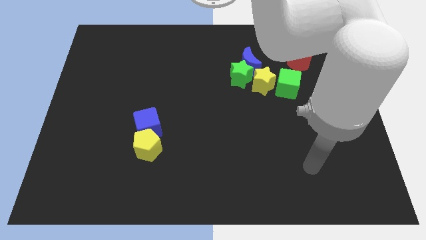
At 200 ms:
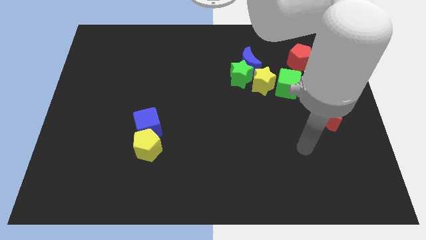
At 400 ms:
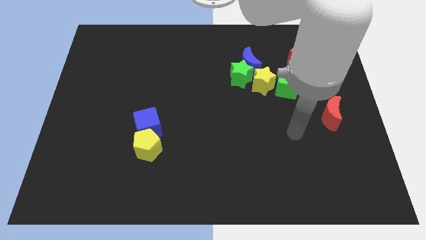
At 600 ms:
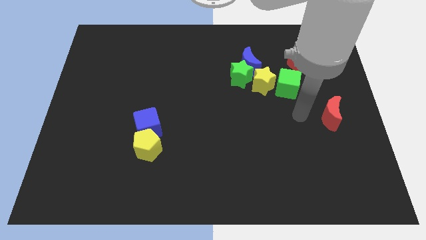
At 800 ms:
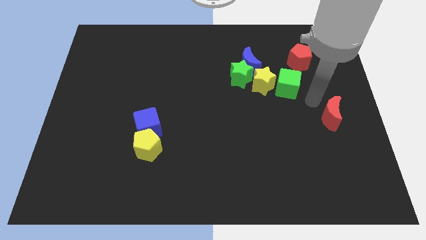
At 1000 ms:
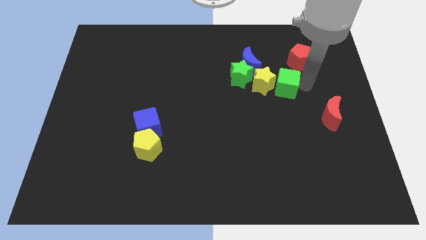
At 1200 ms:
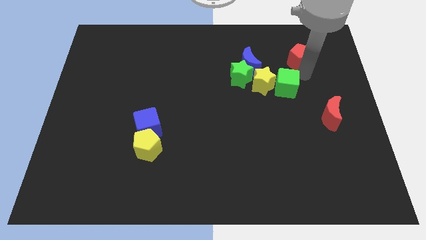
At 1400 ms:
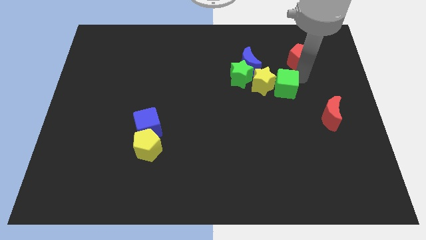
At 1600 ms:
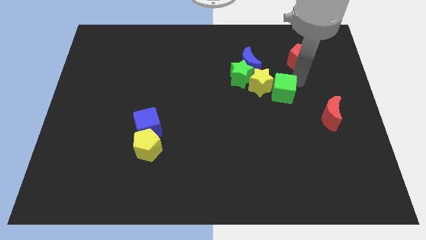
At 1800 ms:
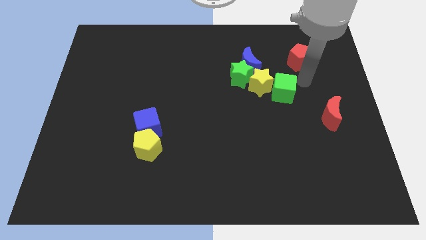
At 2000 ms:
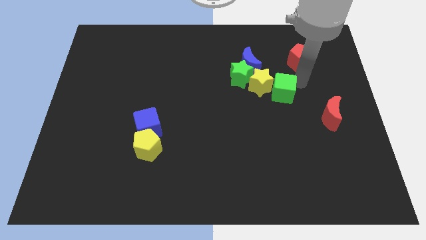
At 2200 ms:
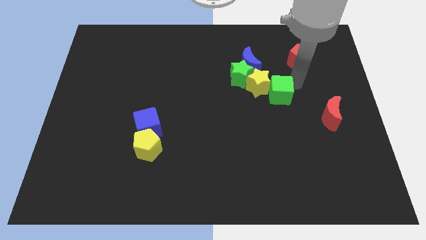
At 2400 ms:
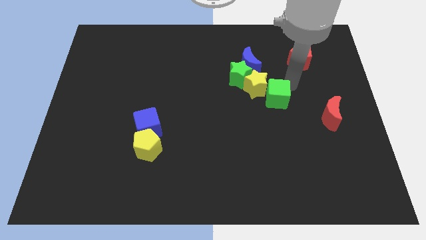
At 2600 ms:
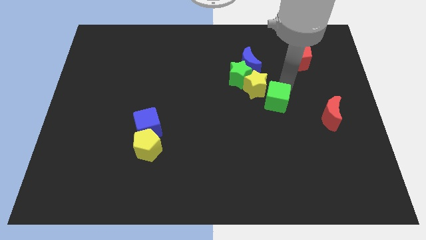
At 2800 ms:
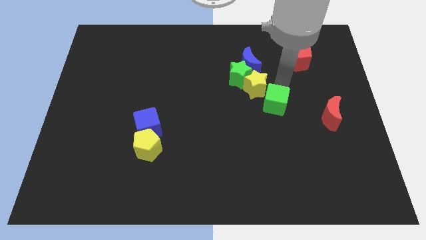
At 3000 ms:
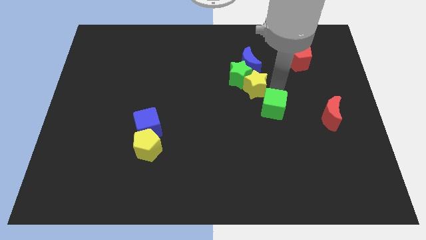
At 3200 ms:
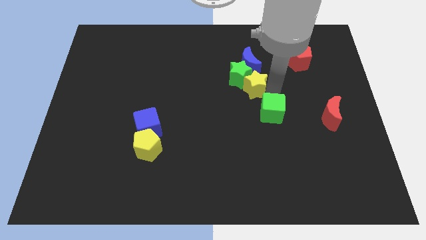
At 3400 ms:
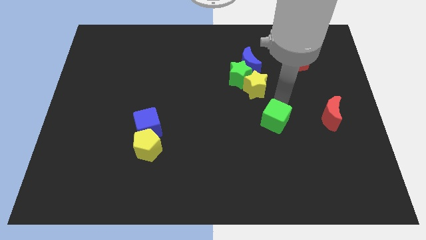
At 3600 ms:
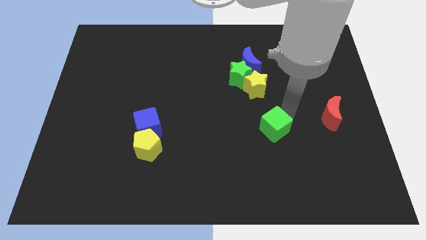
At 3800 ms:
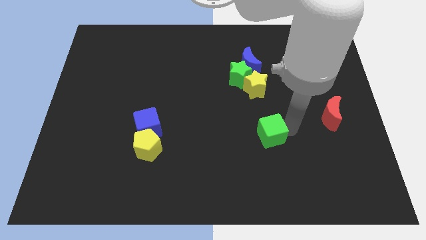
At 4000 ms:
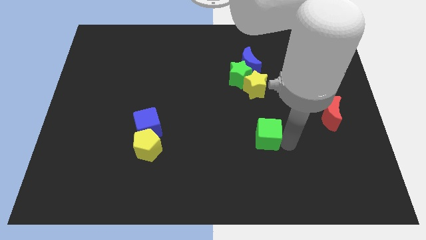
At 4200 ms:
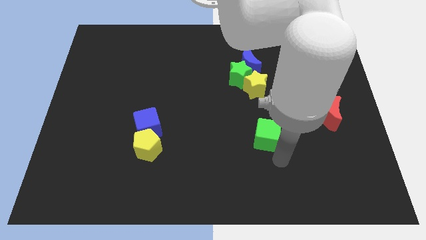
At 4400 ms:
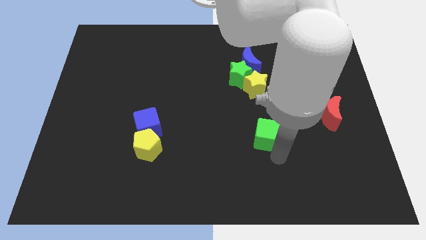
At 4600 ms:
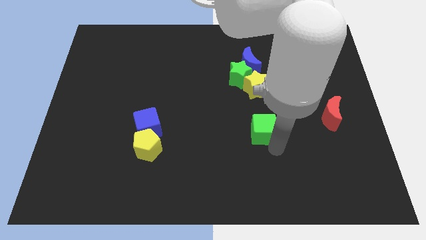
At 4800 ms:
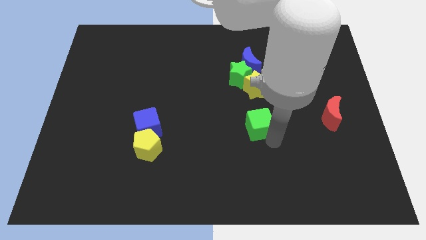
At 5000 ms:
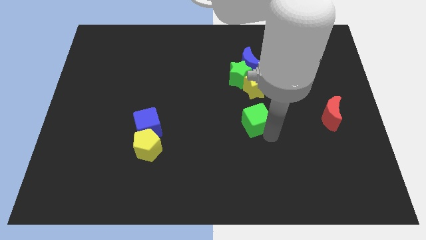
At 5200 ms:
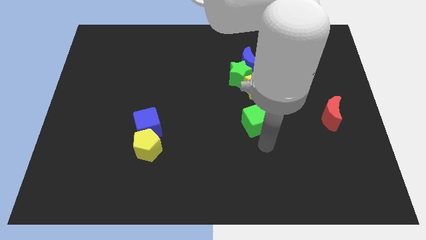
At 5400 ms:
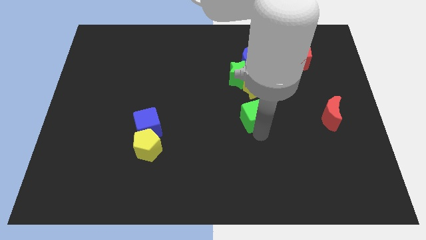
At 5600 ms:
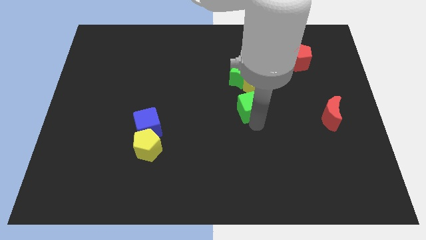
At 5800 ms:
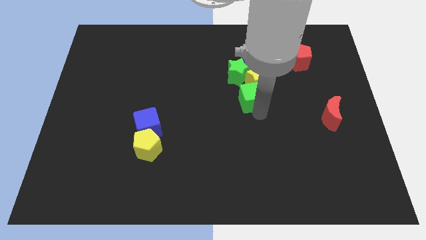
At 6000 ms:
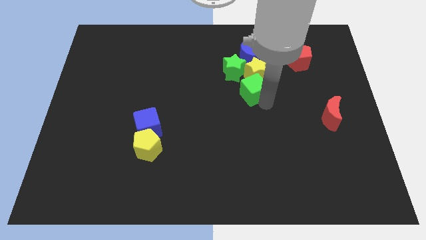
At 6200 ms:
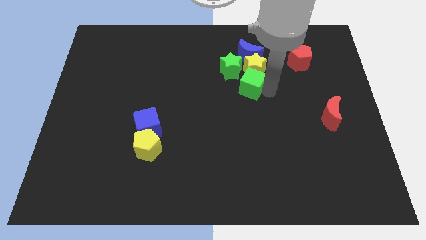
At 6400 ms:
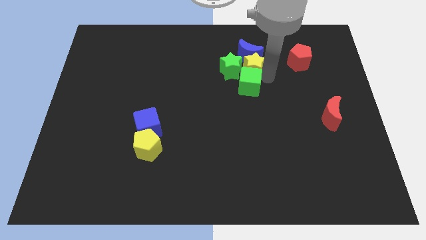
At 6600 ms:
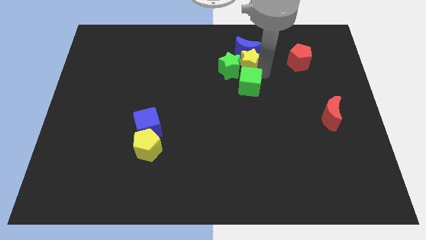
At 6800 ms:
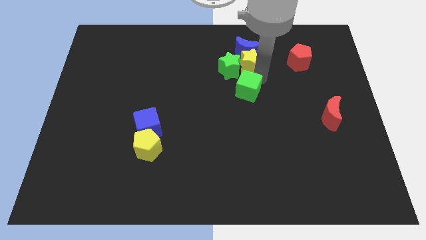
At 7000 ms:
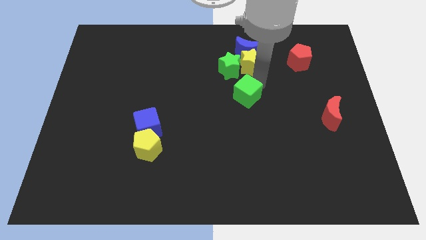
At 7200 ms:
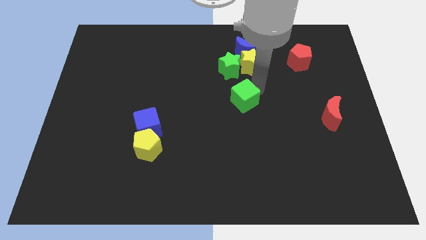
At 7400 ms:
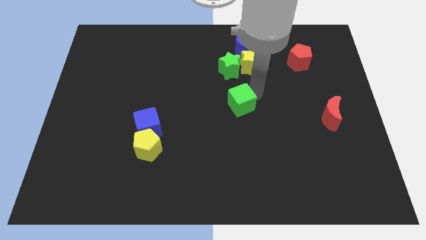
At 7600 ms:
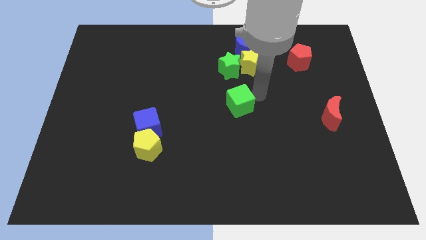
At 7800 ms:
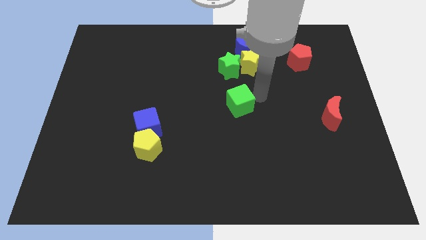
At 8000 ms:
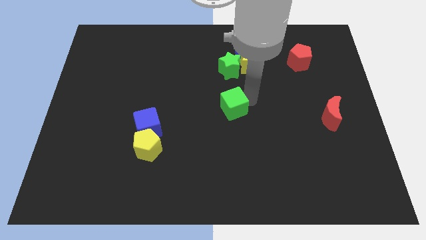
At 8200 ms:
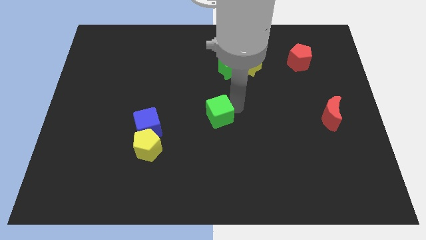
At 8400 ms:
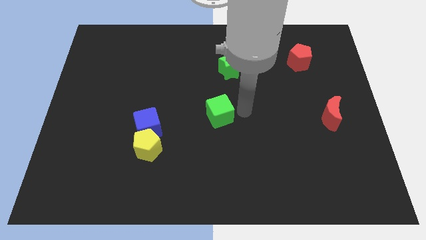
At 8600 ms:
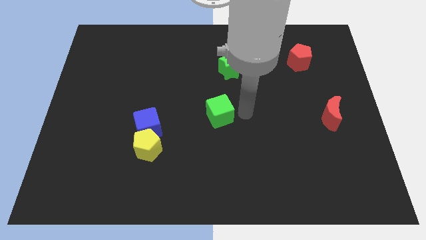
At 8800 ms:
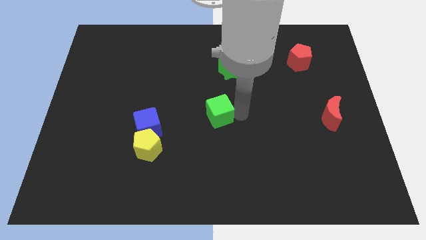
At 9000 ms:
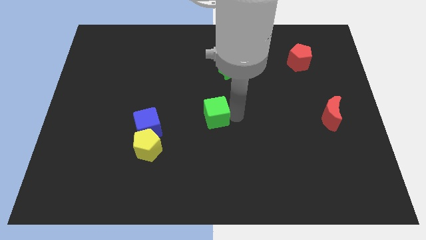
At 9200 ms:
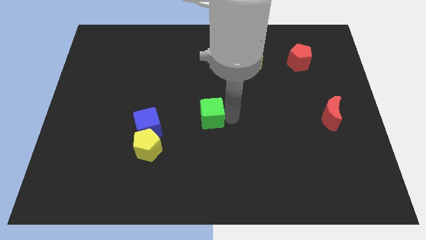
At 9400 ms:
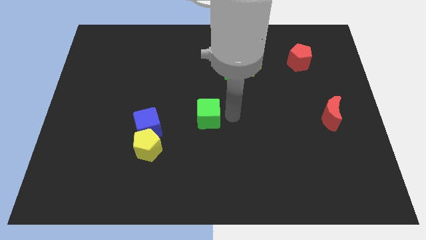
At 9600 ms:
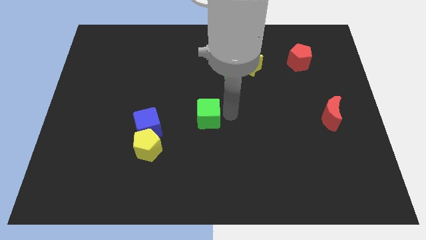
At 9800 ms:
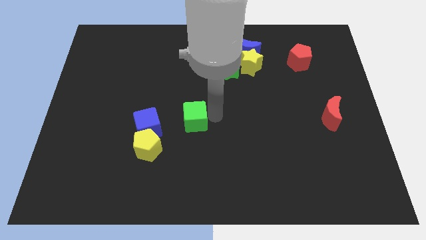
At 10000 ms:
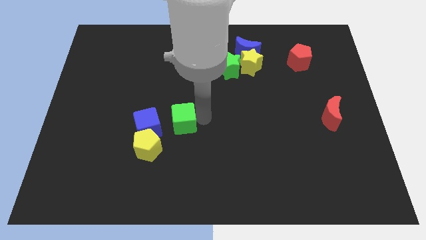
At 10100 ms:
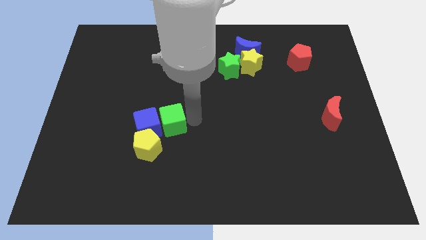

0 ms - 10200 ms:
put the green cube close to the blue cube
